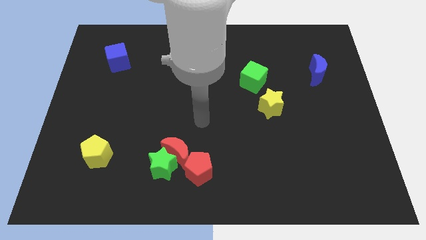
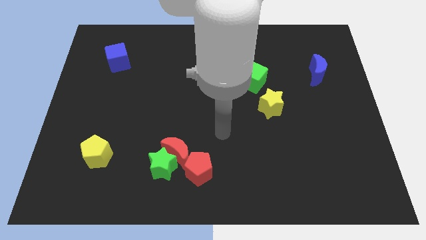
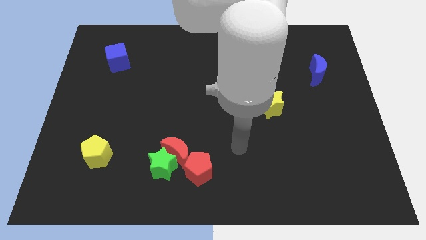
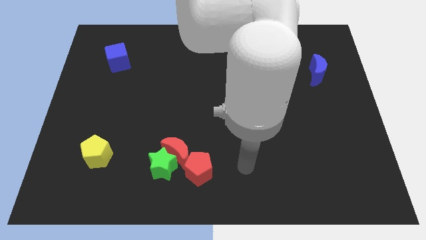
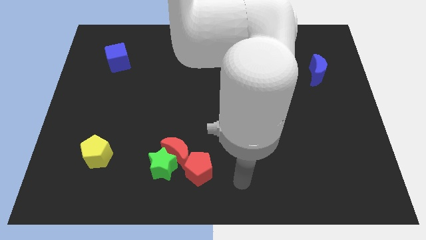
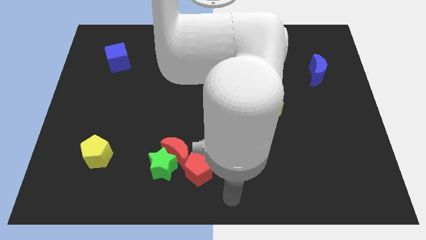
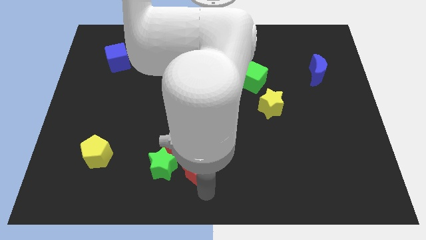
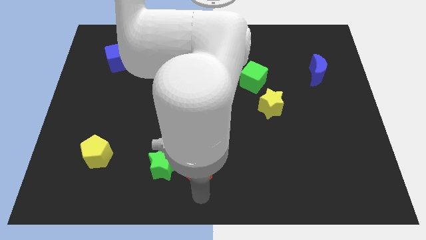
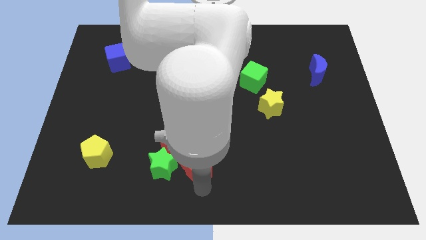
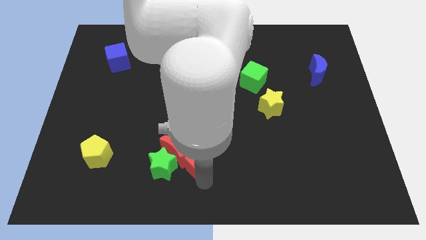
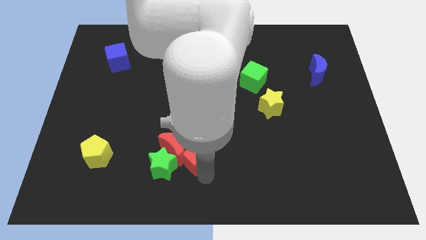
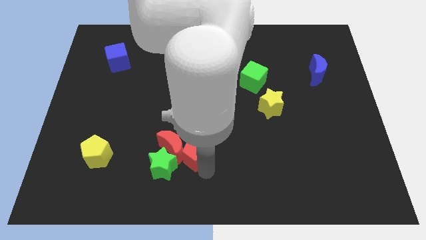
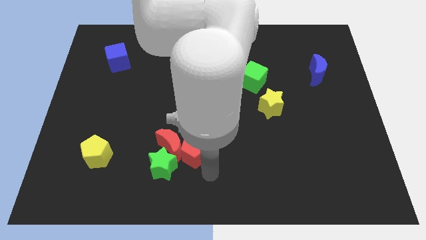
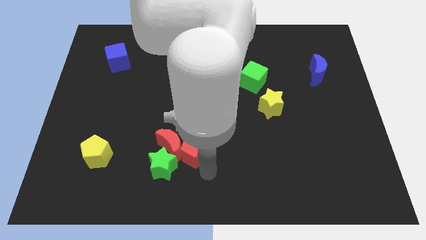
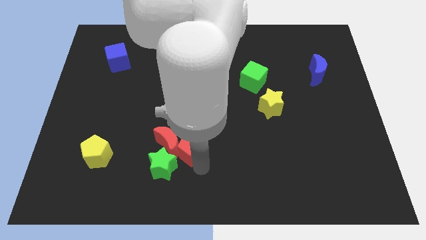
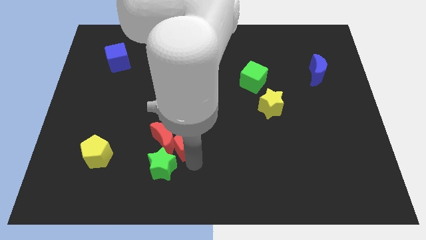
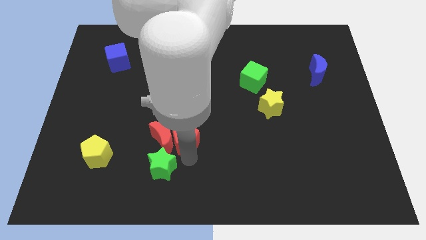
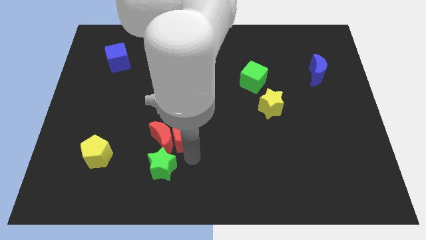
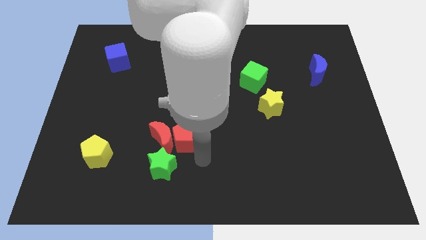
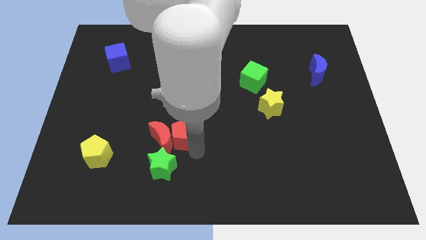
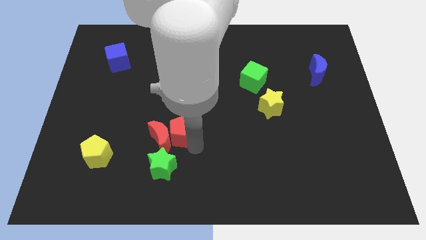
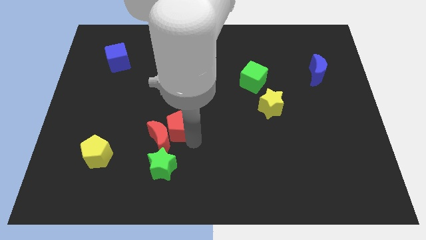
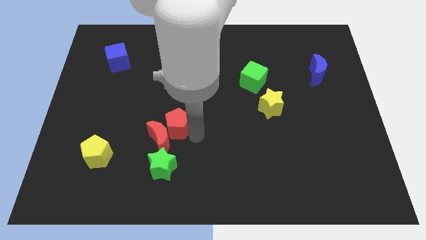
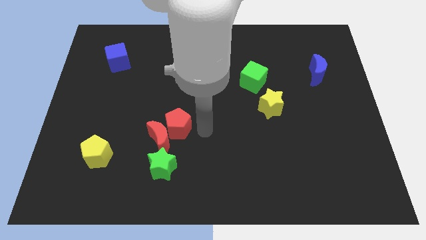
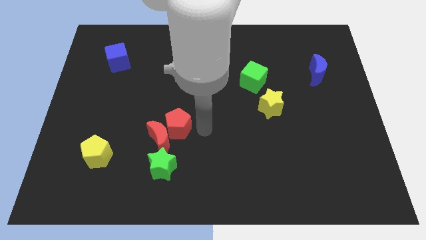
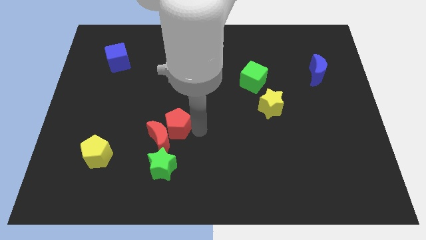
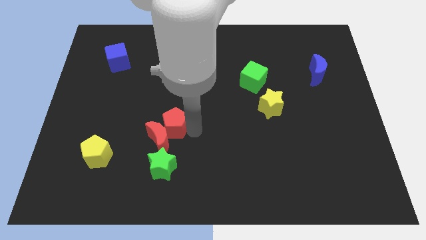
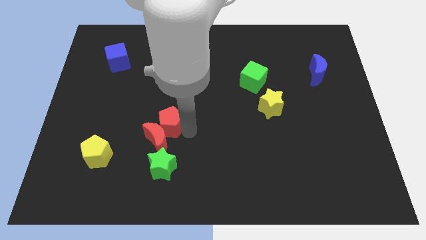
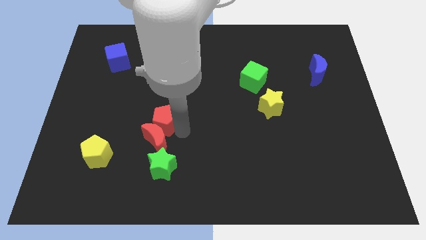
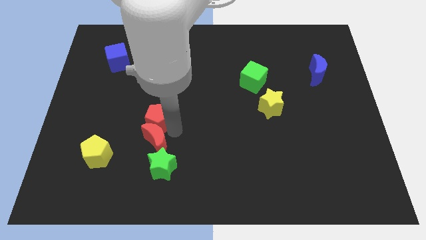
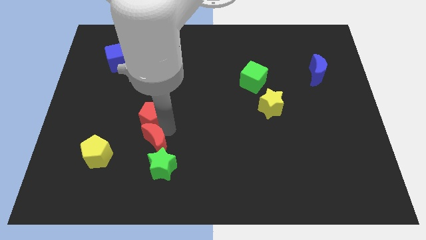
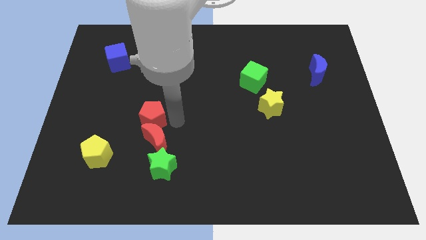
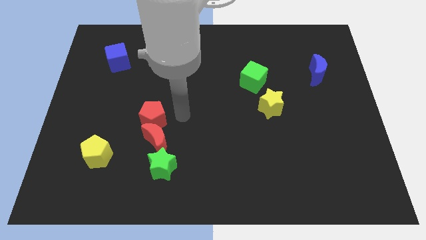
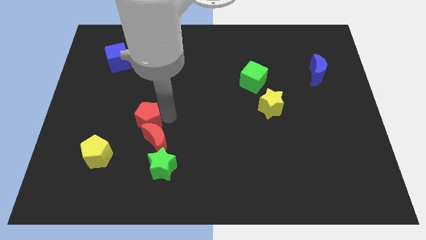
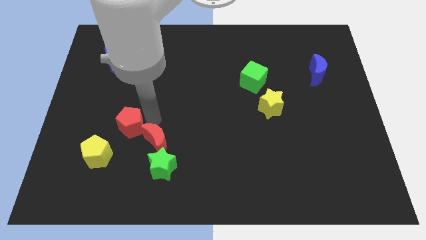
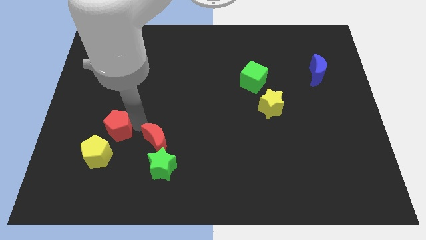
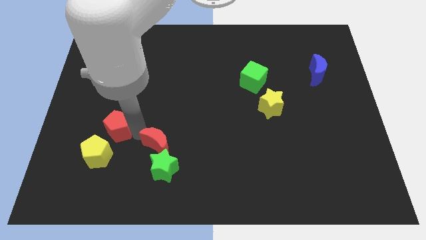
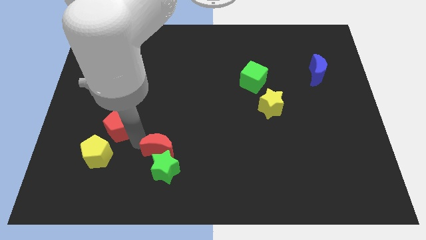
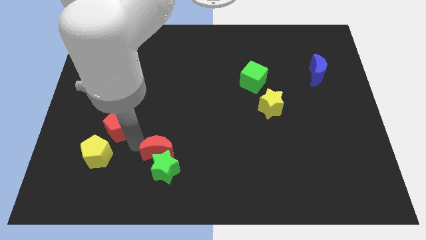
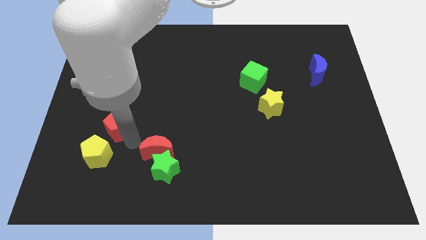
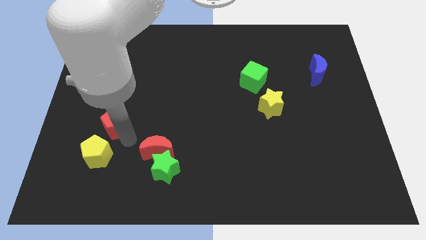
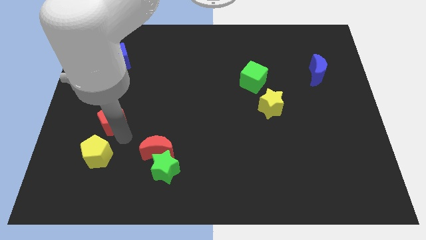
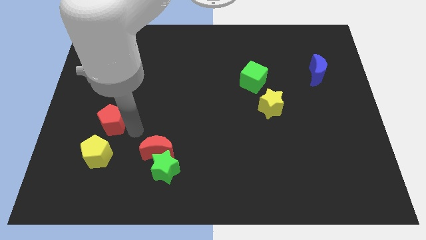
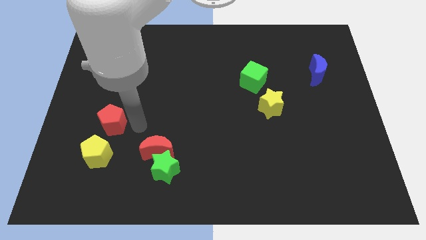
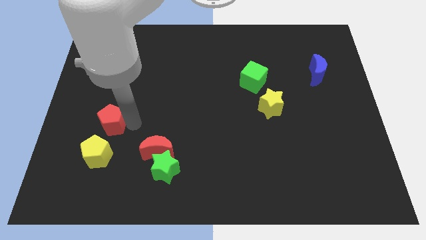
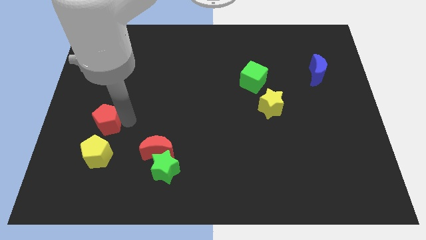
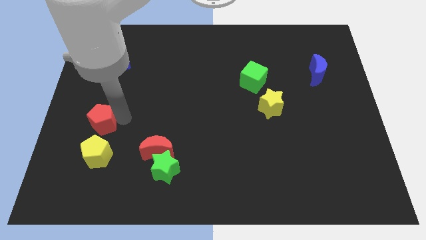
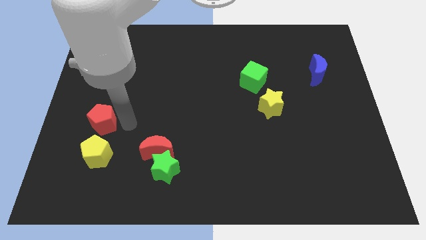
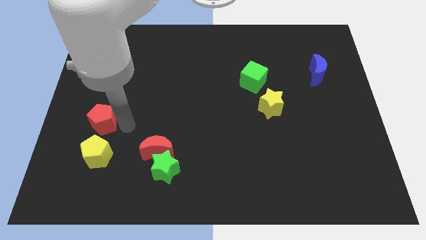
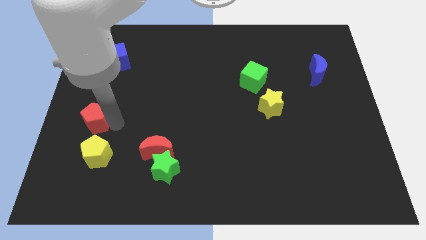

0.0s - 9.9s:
push the red pentagon to the center left

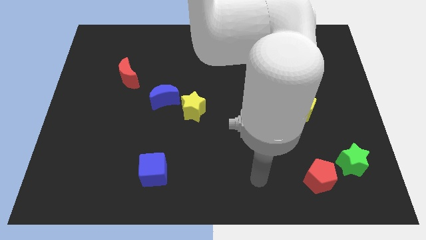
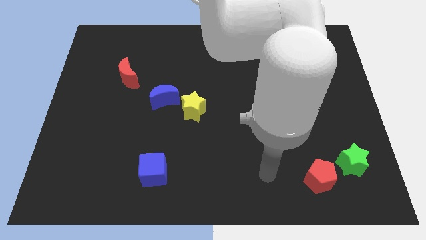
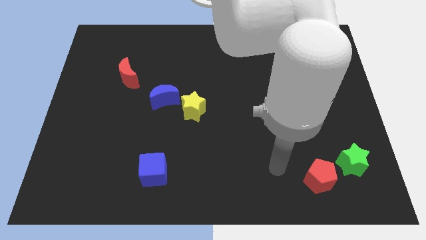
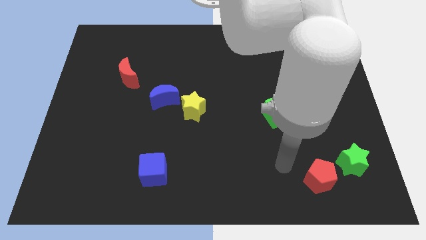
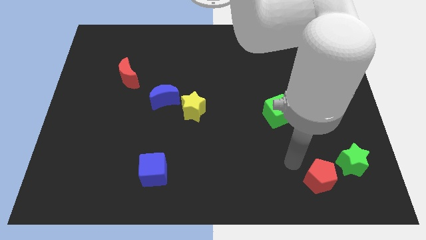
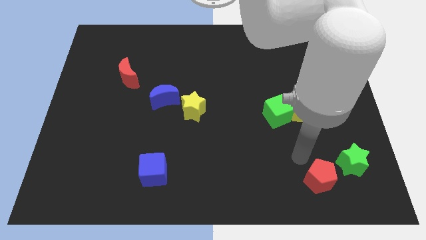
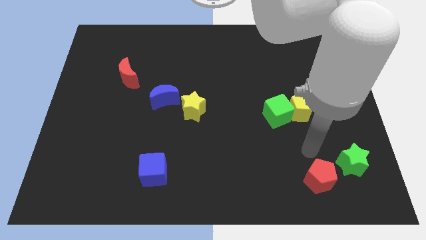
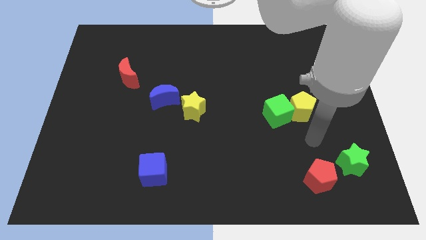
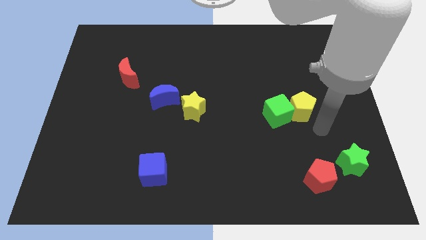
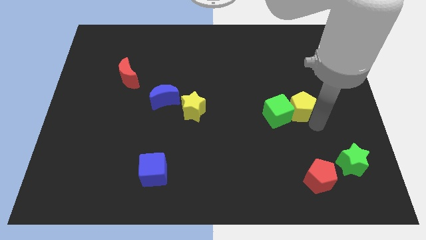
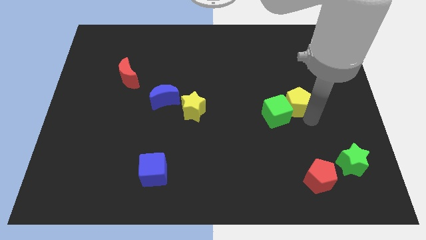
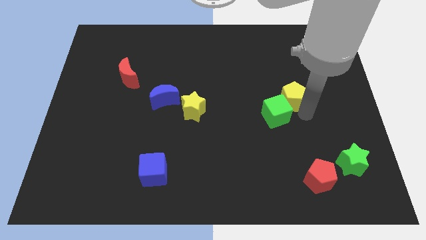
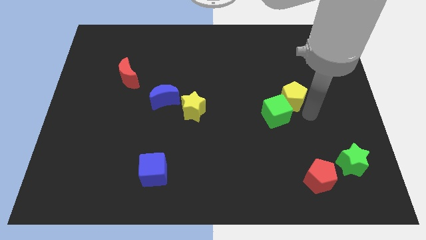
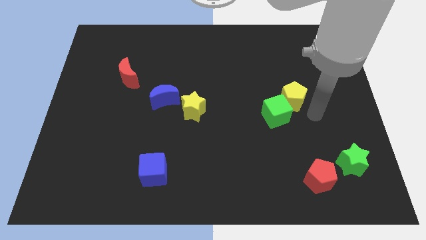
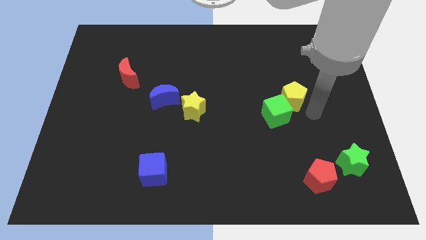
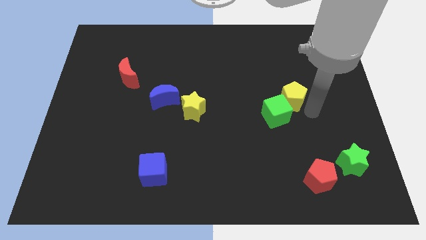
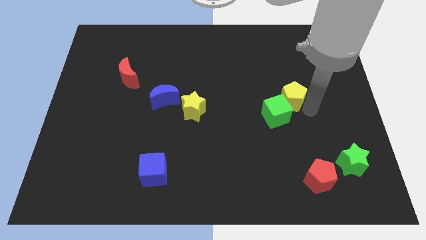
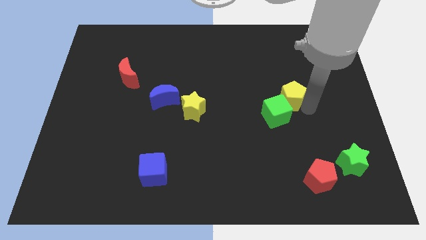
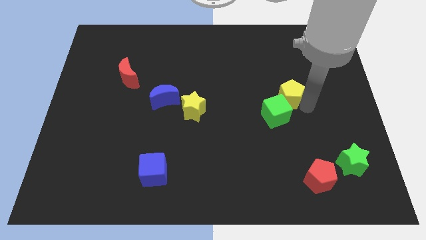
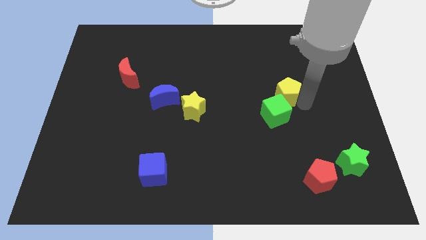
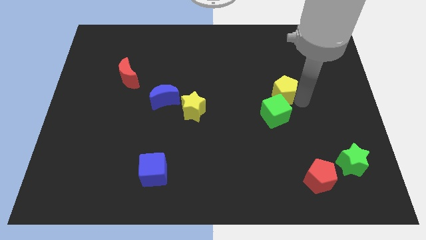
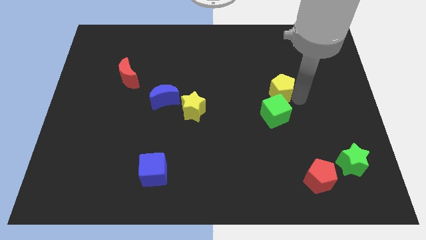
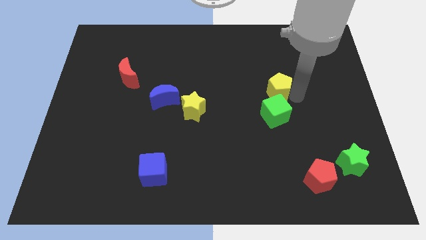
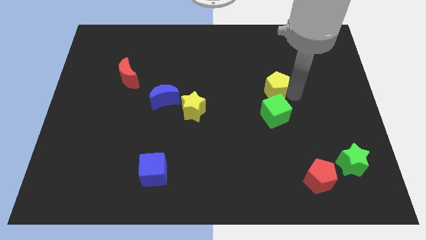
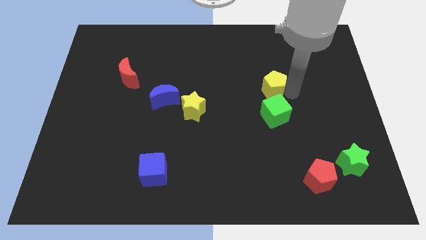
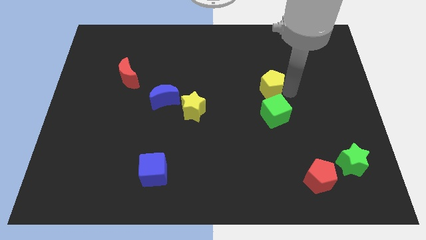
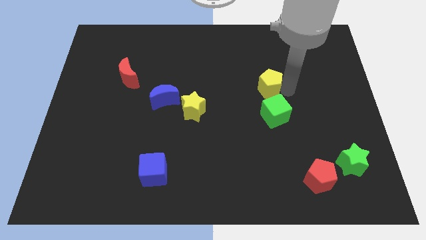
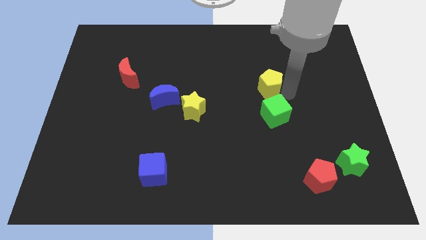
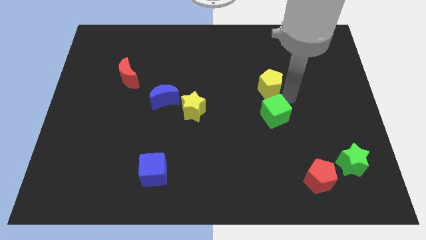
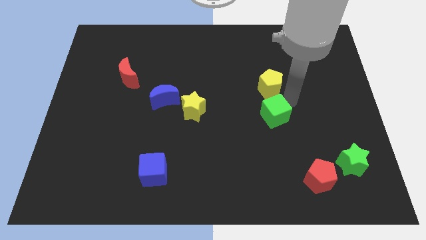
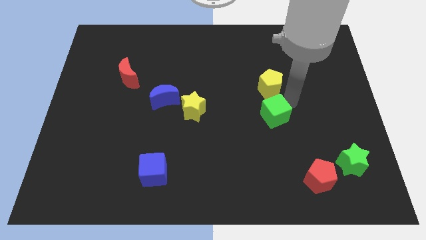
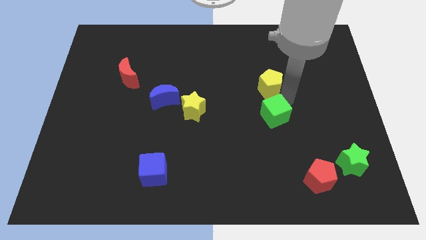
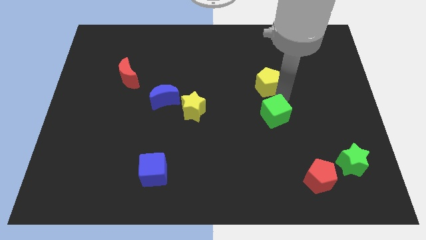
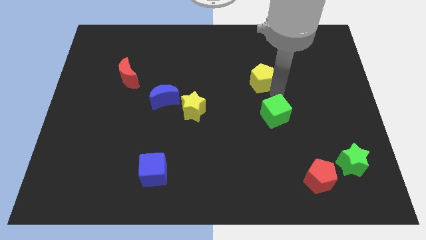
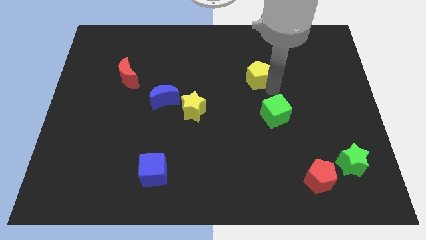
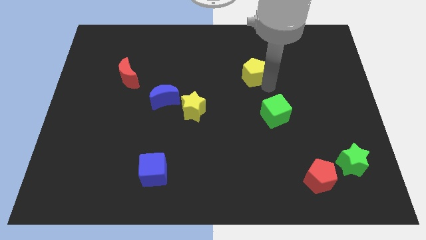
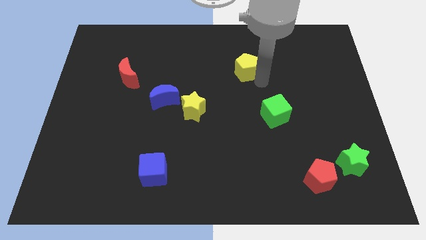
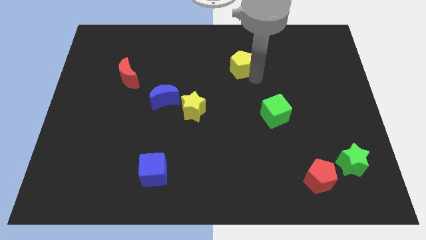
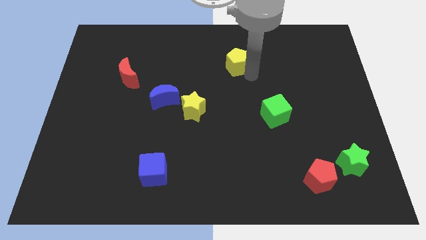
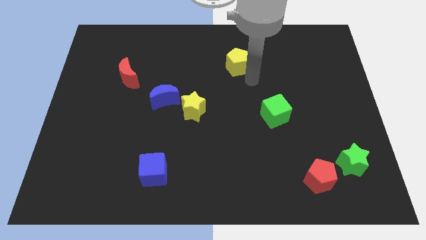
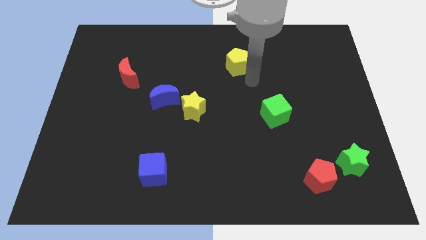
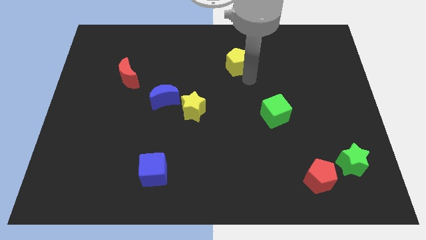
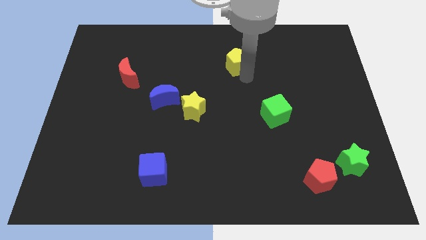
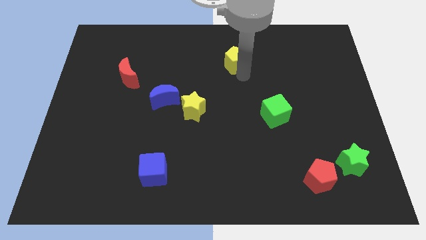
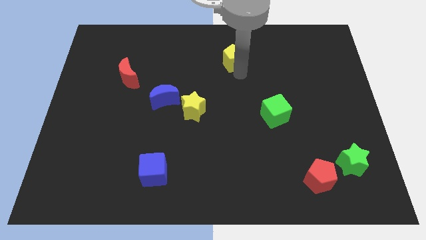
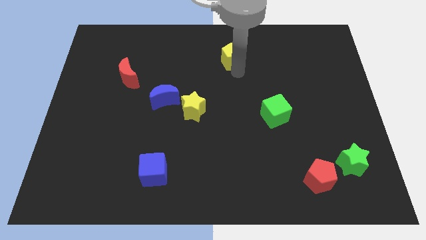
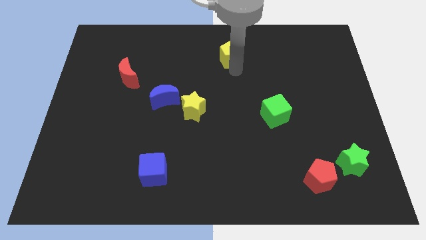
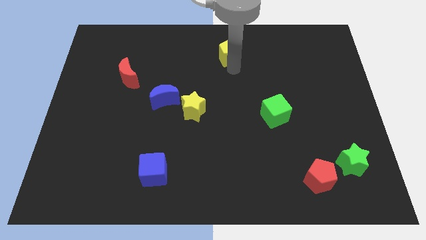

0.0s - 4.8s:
push the yellow pentagon to the top
